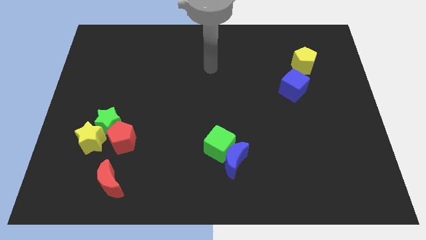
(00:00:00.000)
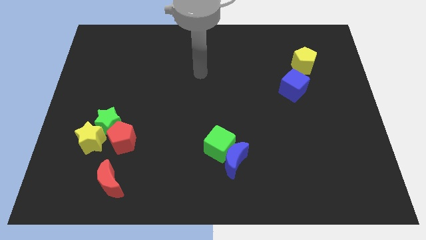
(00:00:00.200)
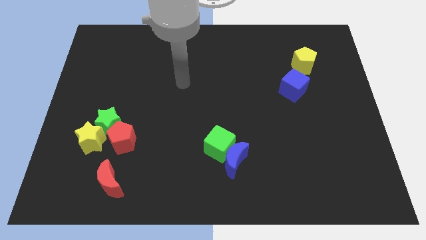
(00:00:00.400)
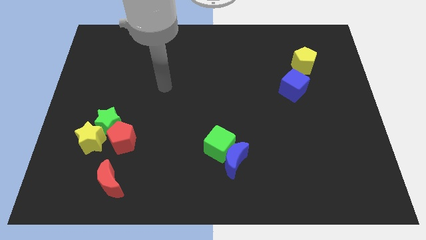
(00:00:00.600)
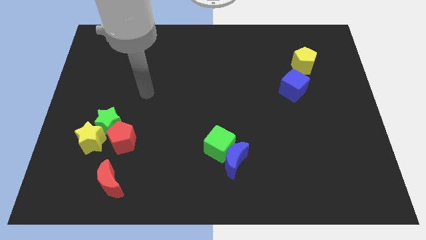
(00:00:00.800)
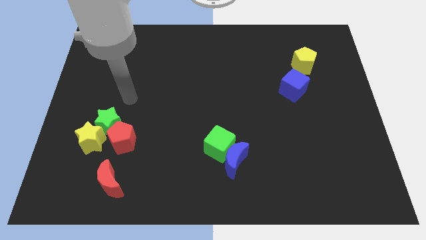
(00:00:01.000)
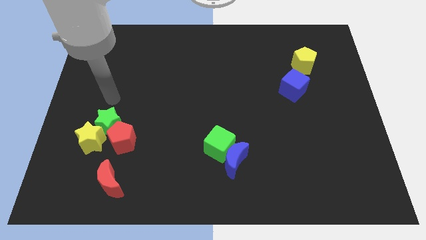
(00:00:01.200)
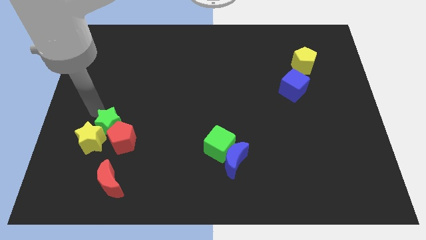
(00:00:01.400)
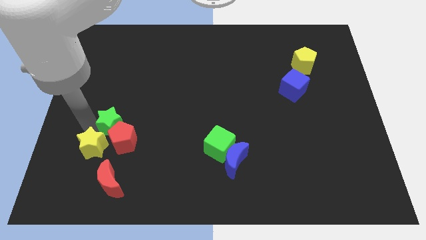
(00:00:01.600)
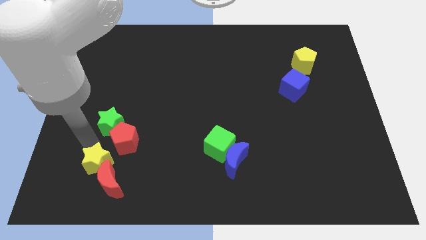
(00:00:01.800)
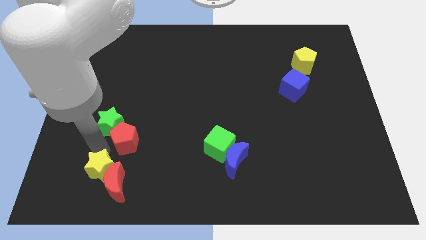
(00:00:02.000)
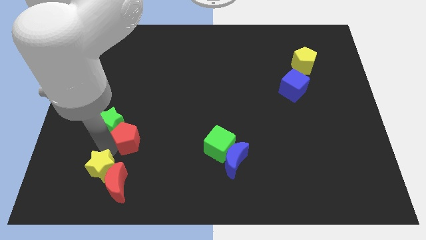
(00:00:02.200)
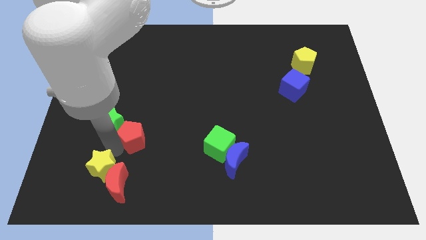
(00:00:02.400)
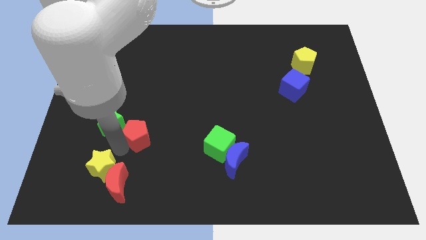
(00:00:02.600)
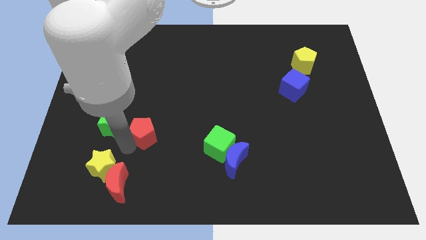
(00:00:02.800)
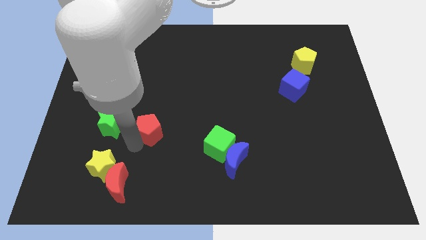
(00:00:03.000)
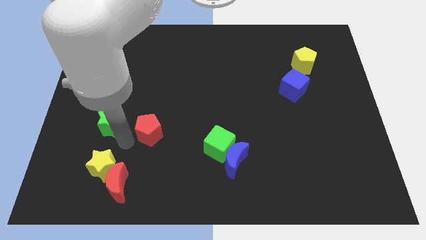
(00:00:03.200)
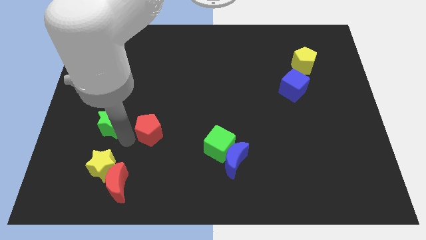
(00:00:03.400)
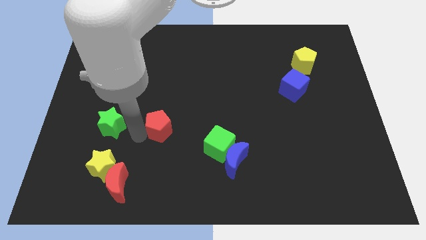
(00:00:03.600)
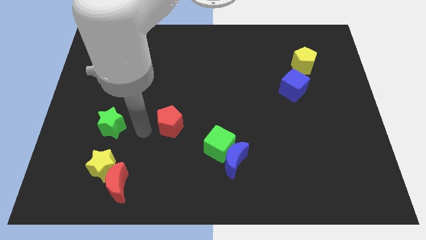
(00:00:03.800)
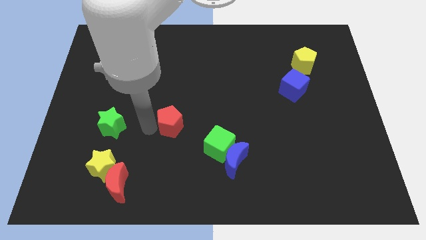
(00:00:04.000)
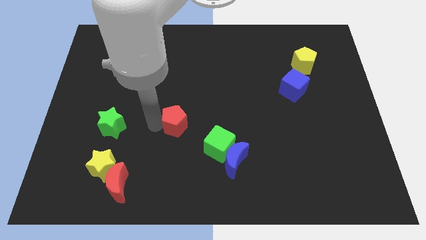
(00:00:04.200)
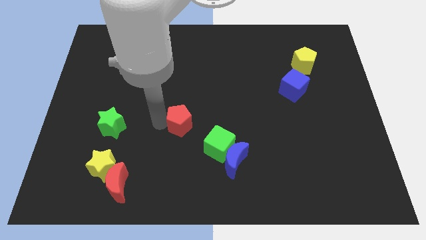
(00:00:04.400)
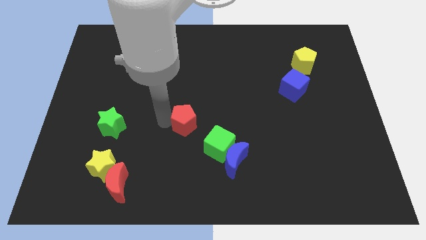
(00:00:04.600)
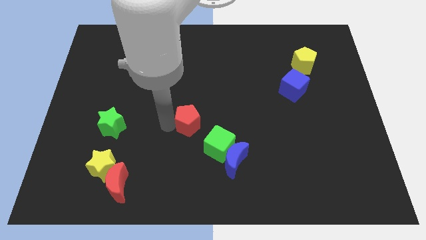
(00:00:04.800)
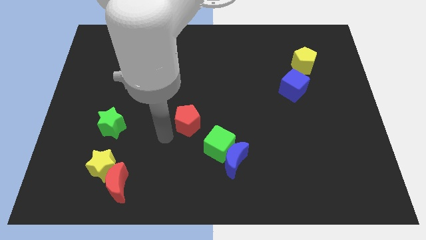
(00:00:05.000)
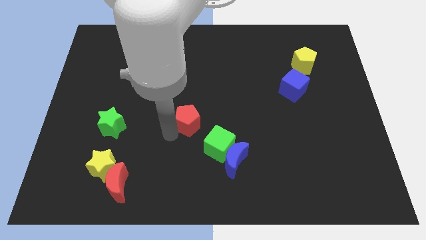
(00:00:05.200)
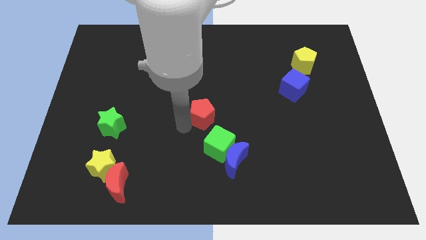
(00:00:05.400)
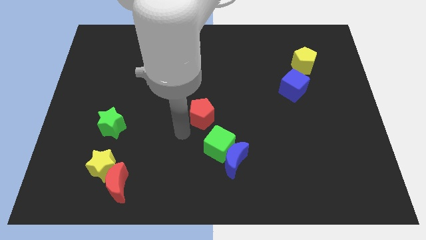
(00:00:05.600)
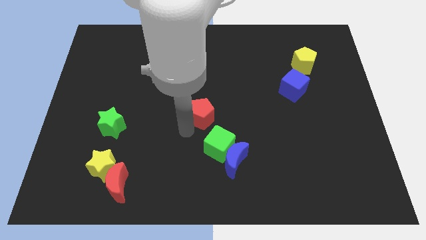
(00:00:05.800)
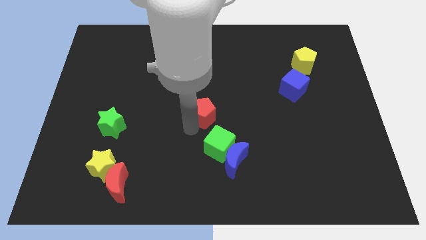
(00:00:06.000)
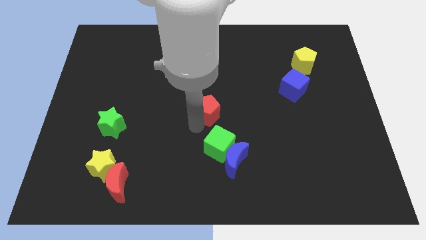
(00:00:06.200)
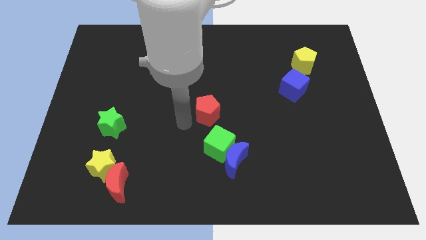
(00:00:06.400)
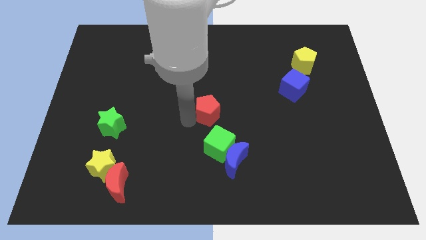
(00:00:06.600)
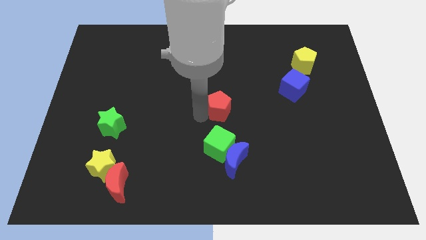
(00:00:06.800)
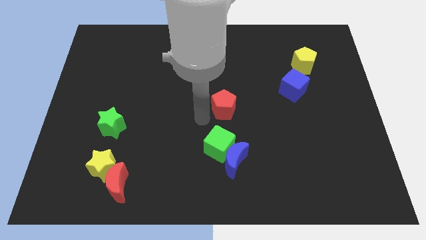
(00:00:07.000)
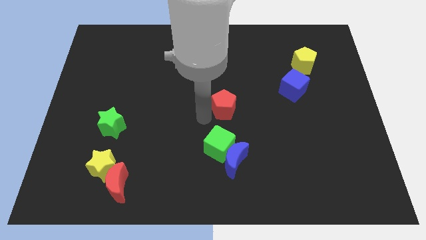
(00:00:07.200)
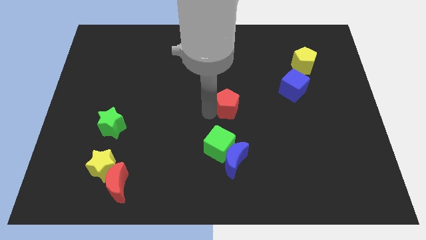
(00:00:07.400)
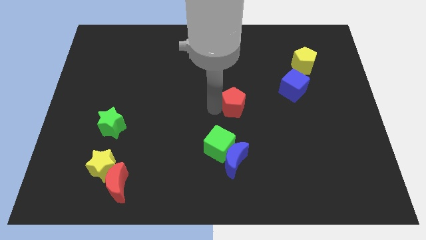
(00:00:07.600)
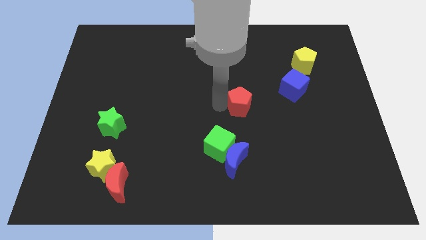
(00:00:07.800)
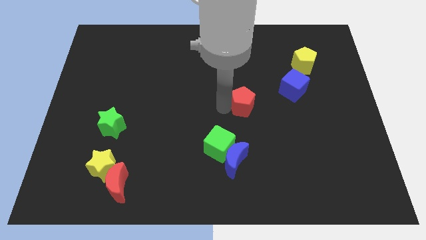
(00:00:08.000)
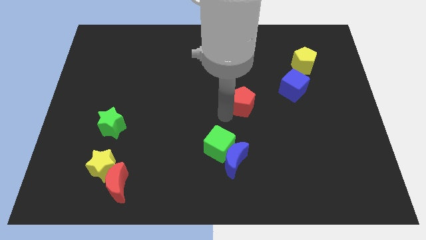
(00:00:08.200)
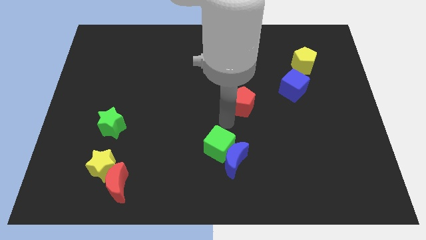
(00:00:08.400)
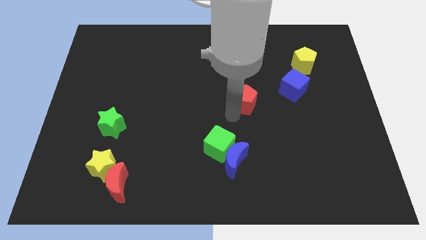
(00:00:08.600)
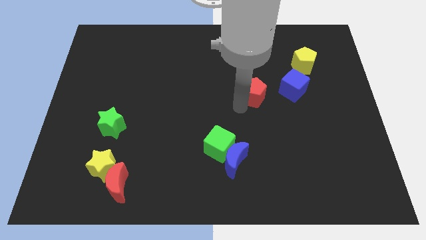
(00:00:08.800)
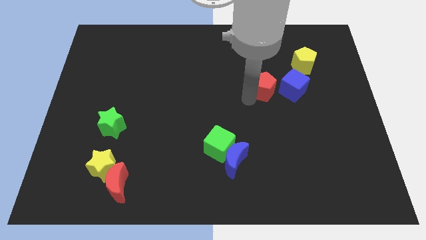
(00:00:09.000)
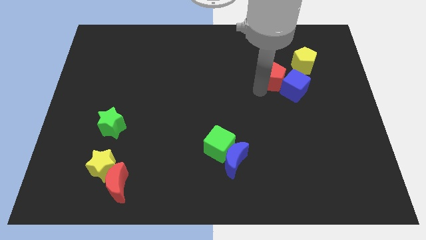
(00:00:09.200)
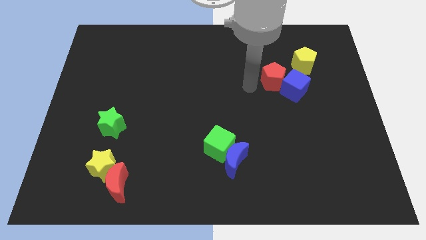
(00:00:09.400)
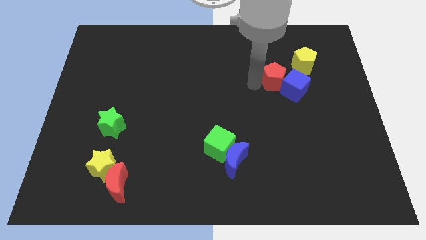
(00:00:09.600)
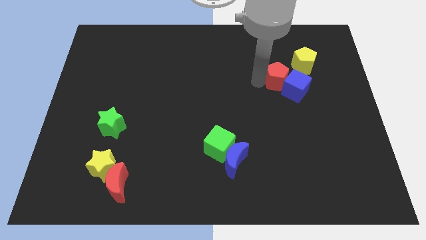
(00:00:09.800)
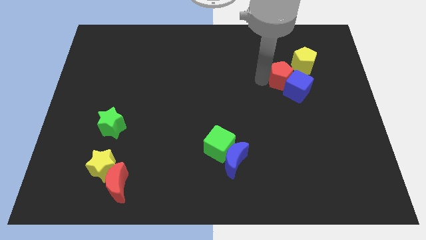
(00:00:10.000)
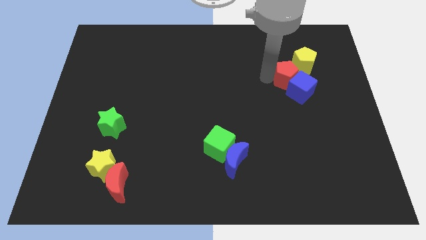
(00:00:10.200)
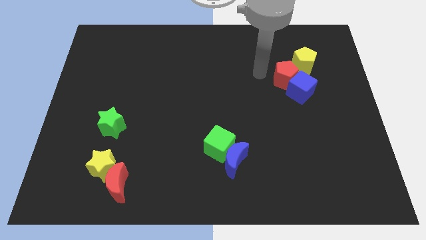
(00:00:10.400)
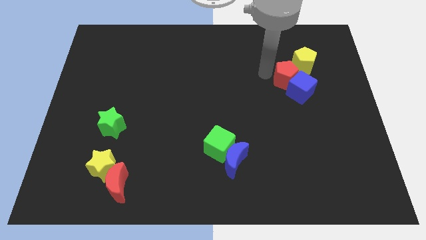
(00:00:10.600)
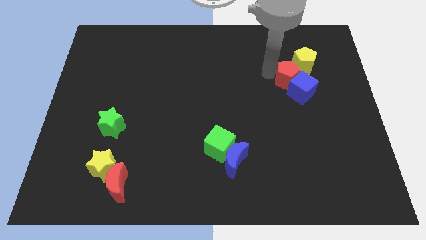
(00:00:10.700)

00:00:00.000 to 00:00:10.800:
slide the red pentagon to the bottom of the yellow pentagon

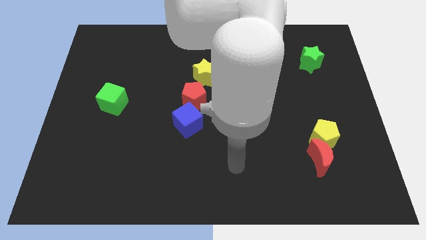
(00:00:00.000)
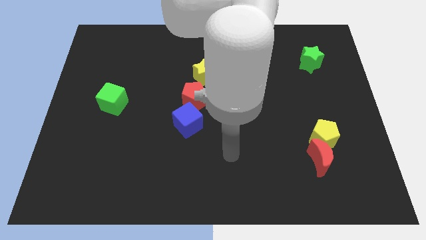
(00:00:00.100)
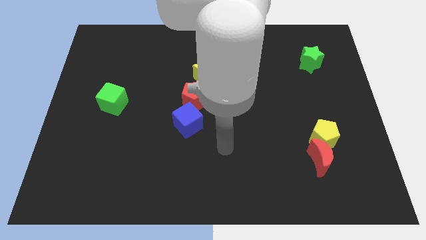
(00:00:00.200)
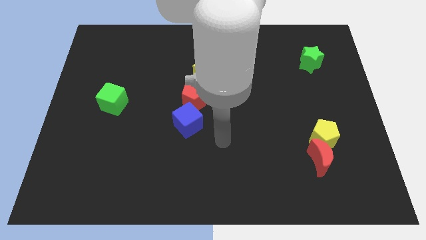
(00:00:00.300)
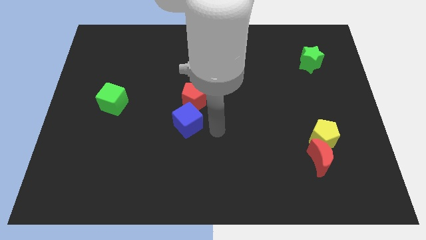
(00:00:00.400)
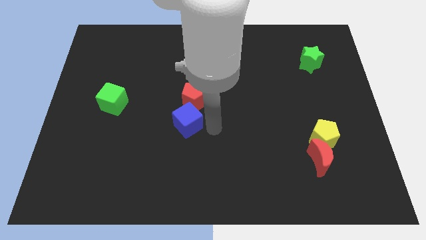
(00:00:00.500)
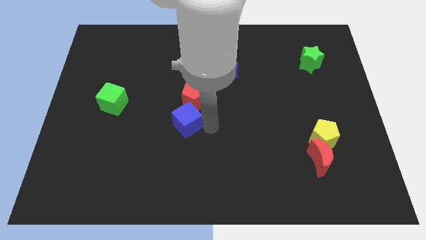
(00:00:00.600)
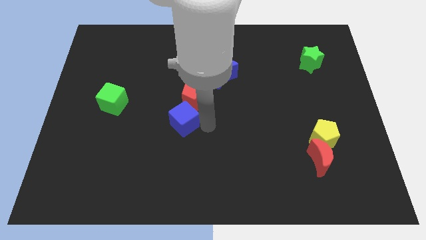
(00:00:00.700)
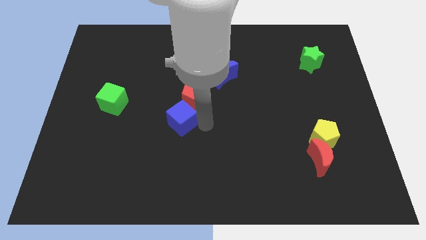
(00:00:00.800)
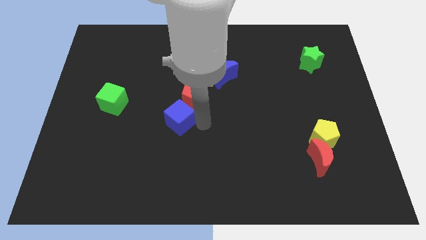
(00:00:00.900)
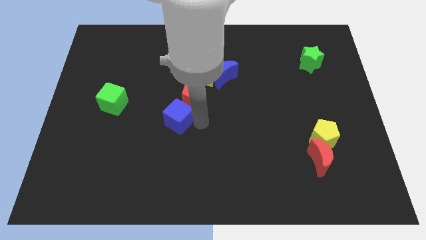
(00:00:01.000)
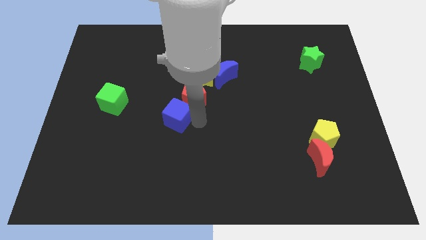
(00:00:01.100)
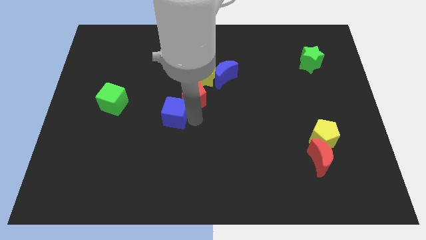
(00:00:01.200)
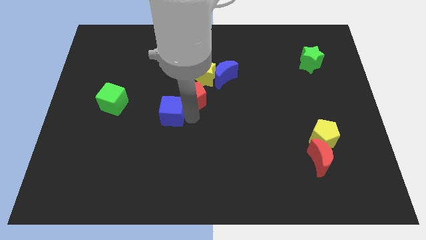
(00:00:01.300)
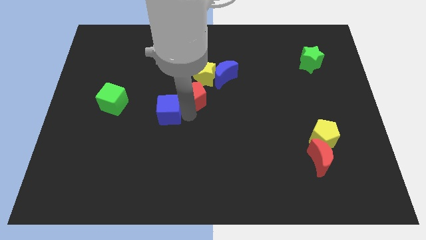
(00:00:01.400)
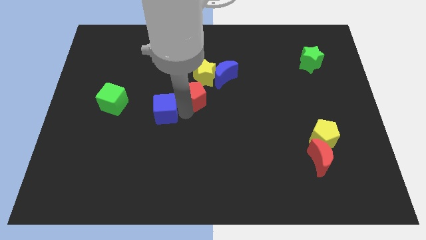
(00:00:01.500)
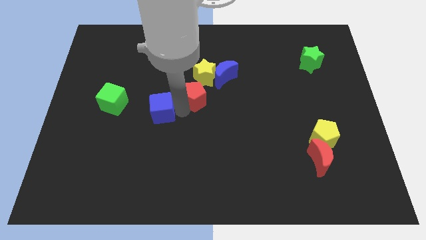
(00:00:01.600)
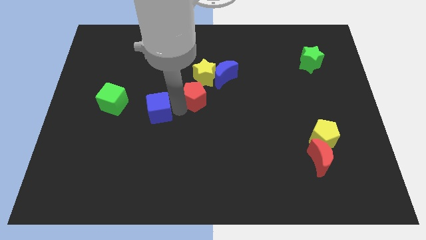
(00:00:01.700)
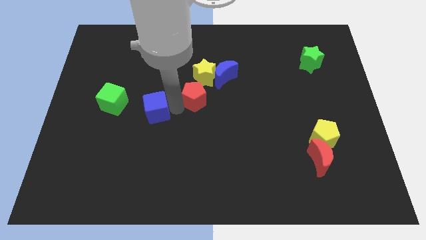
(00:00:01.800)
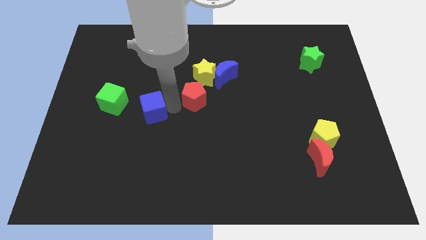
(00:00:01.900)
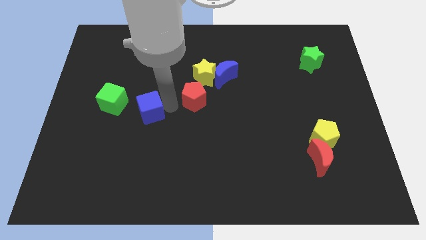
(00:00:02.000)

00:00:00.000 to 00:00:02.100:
put the blue cube to the bottom right of the green cube
